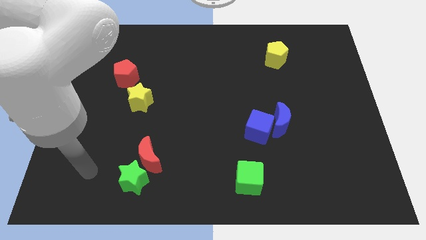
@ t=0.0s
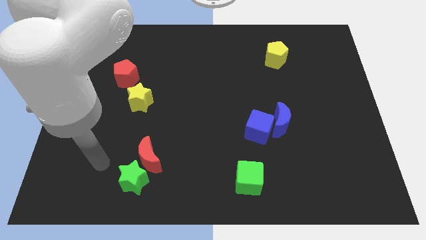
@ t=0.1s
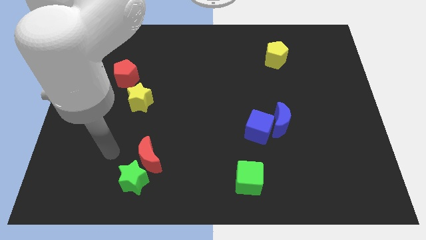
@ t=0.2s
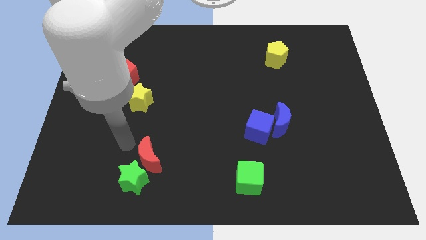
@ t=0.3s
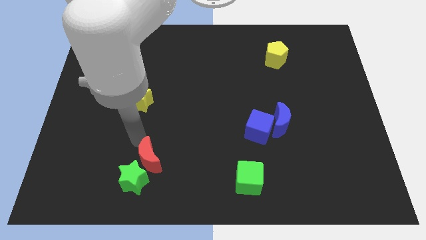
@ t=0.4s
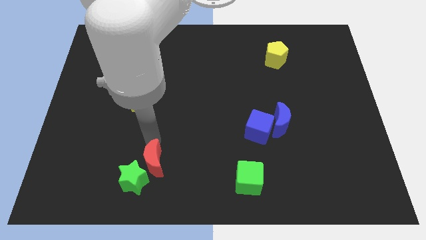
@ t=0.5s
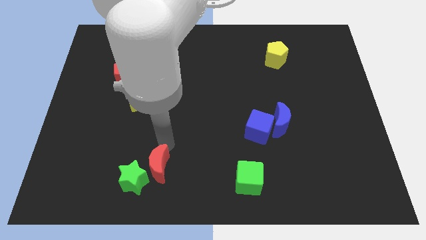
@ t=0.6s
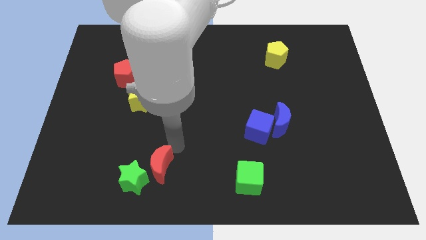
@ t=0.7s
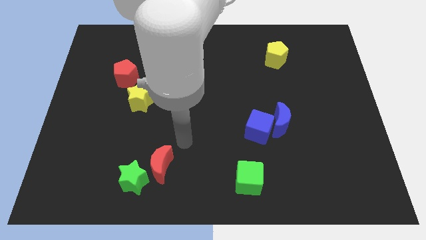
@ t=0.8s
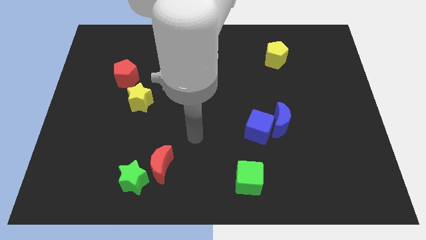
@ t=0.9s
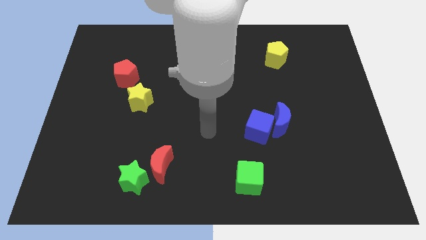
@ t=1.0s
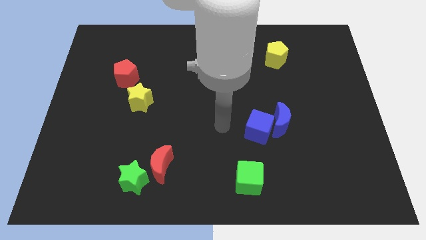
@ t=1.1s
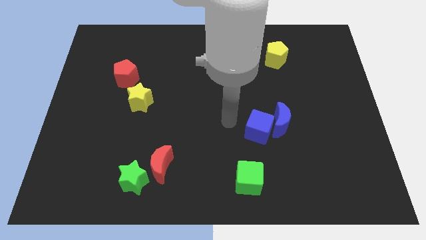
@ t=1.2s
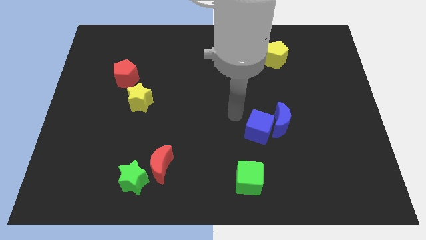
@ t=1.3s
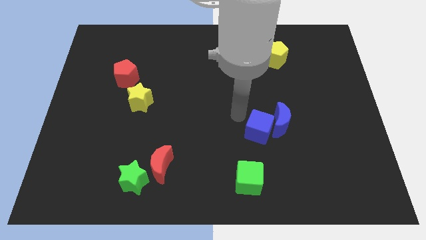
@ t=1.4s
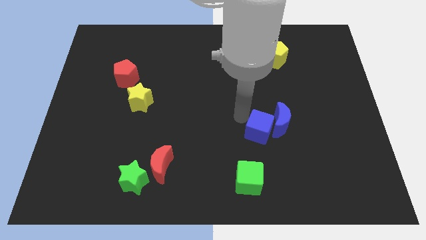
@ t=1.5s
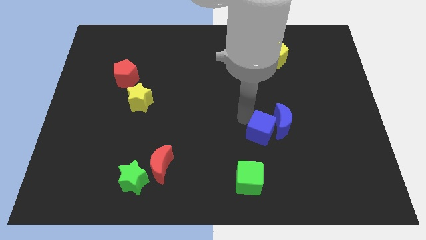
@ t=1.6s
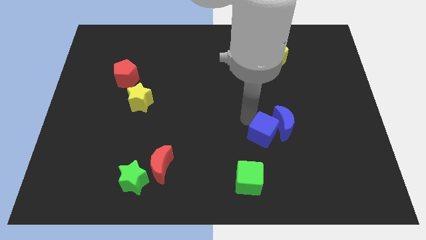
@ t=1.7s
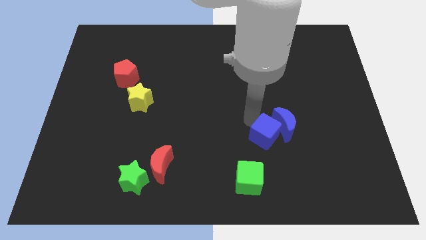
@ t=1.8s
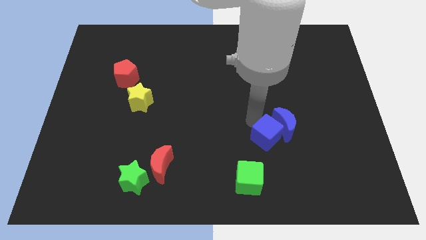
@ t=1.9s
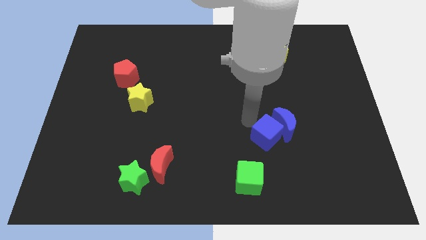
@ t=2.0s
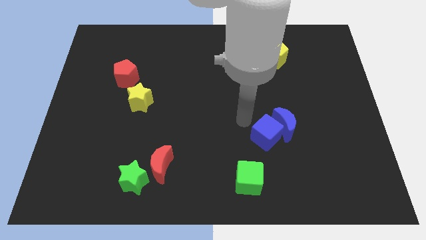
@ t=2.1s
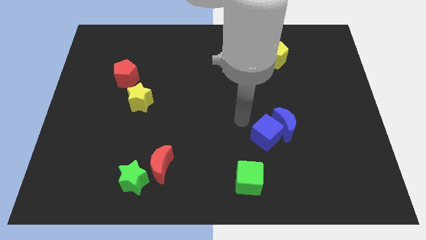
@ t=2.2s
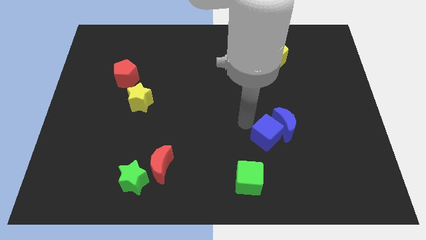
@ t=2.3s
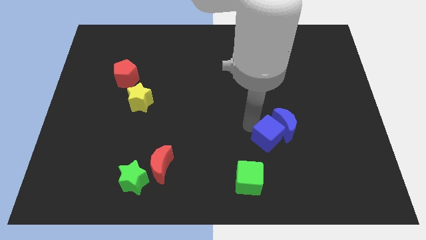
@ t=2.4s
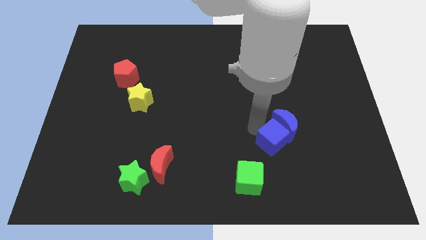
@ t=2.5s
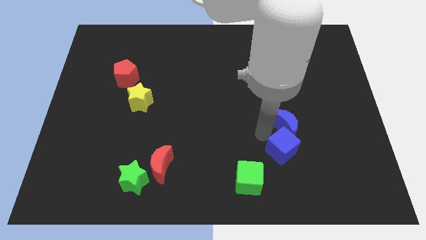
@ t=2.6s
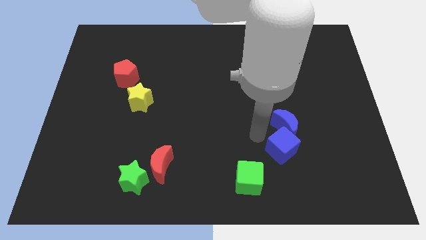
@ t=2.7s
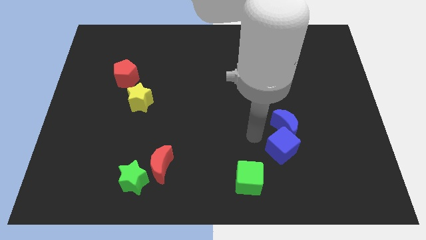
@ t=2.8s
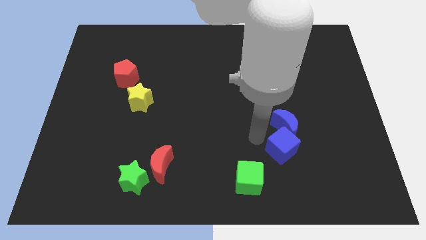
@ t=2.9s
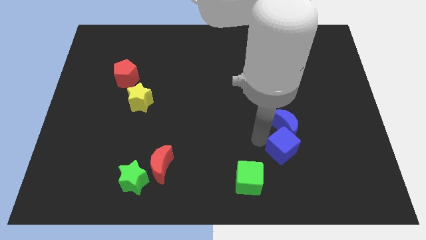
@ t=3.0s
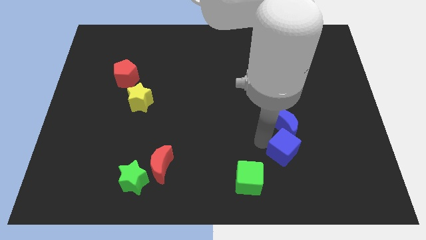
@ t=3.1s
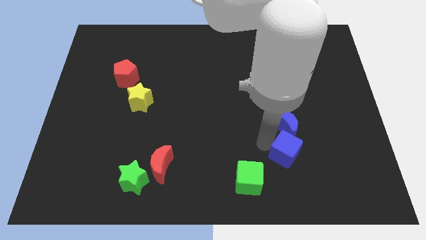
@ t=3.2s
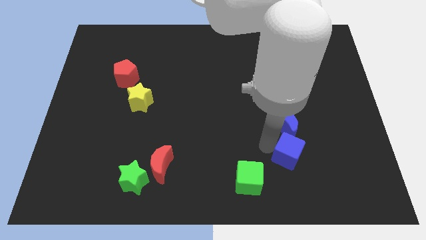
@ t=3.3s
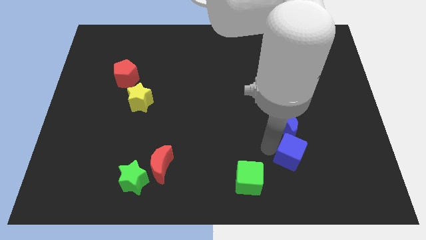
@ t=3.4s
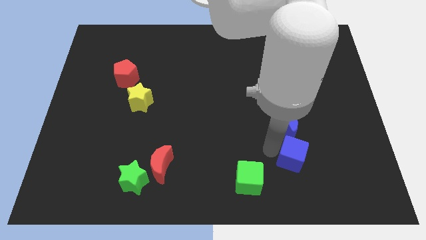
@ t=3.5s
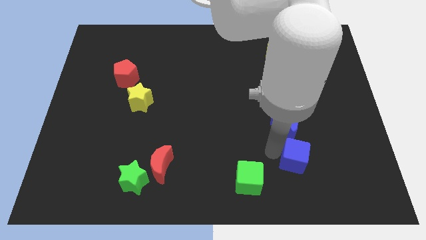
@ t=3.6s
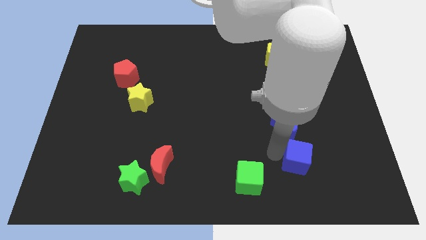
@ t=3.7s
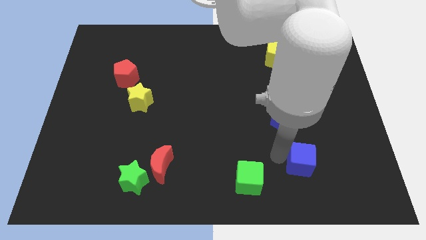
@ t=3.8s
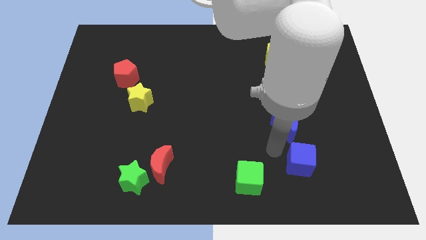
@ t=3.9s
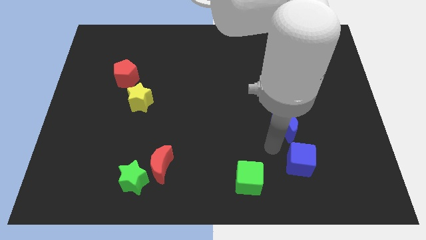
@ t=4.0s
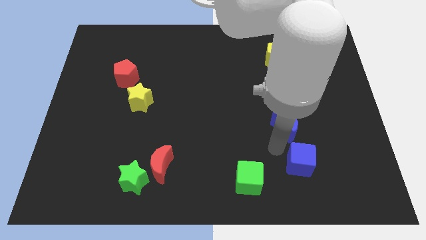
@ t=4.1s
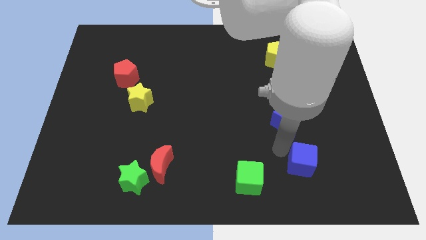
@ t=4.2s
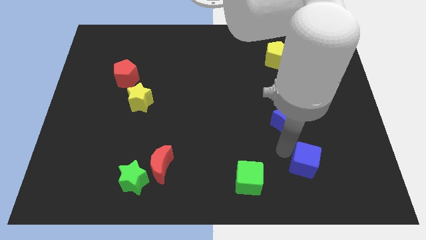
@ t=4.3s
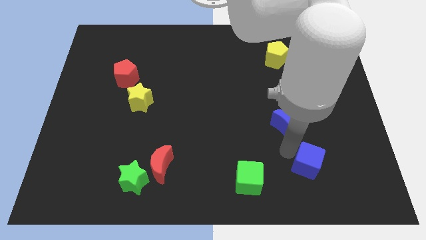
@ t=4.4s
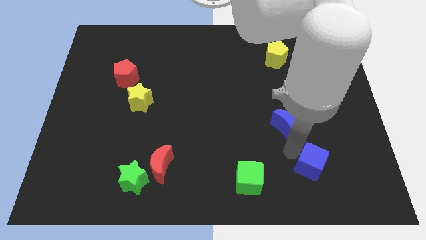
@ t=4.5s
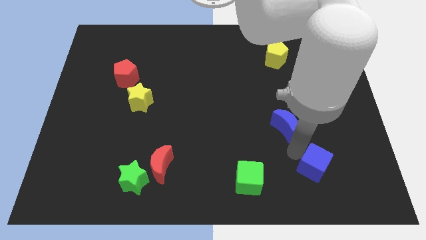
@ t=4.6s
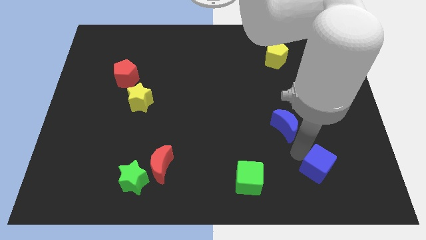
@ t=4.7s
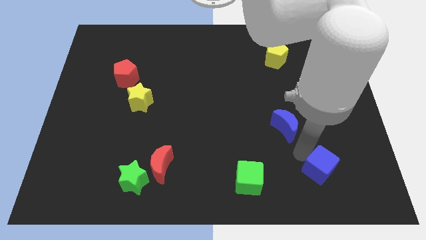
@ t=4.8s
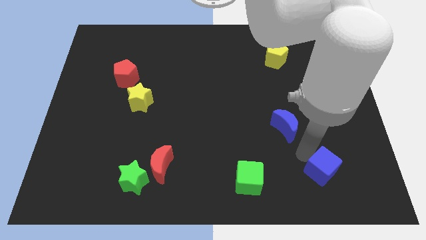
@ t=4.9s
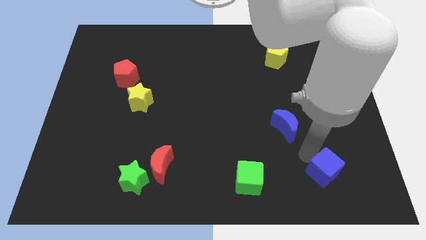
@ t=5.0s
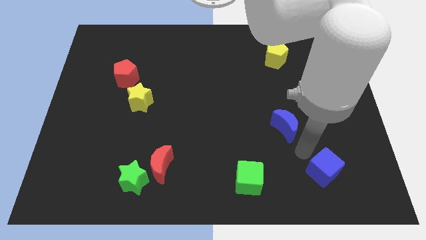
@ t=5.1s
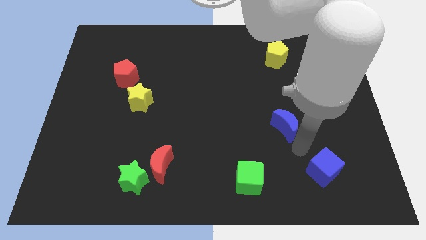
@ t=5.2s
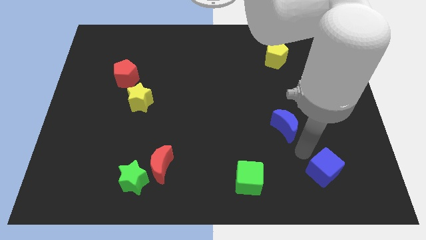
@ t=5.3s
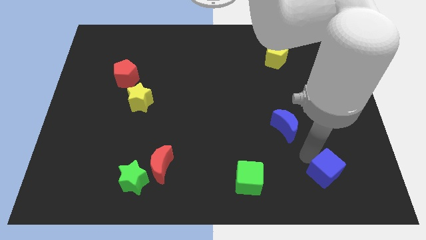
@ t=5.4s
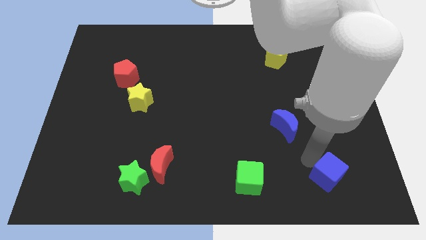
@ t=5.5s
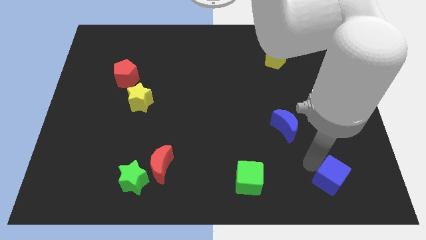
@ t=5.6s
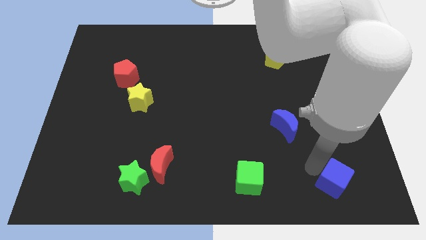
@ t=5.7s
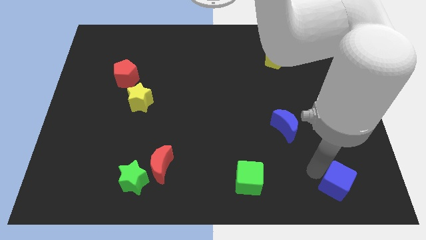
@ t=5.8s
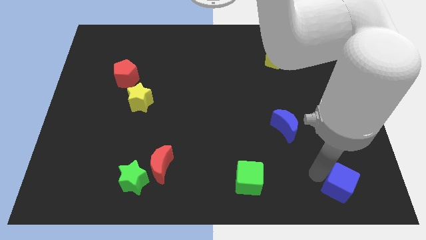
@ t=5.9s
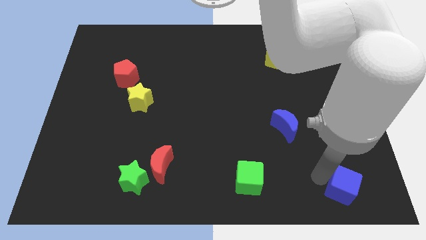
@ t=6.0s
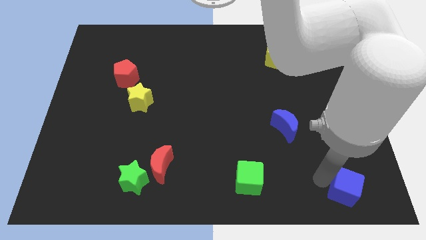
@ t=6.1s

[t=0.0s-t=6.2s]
put the blue cube to the bottom right corner
